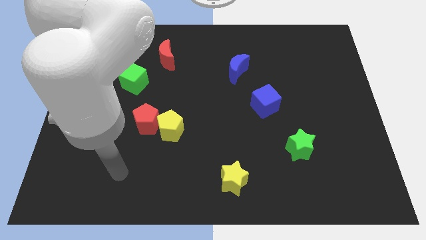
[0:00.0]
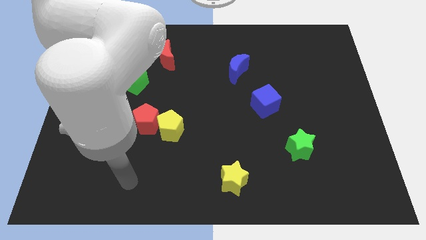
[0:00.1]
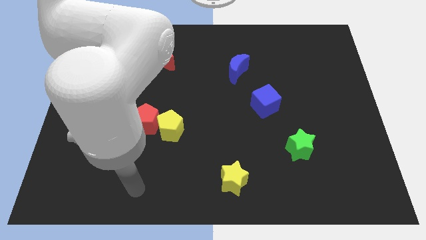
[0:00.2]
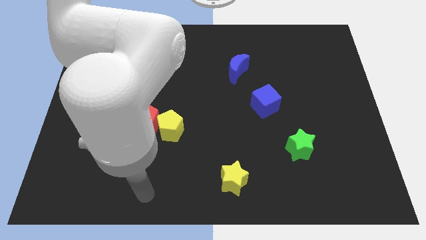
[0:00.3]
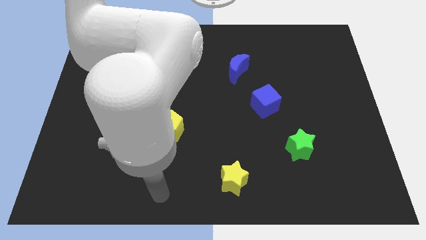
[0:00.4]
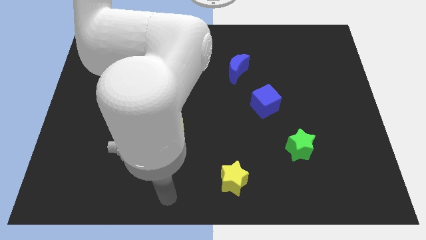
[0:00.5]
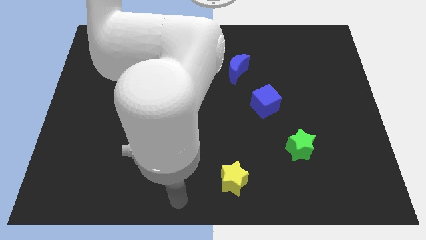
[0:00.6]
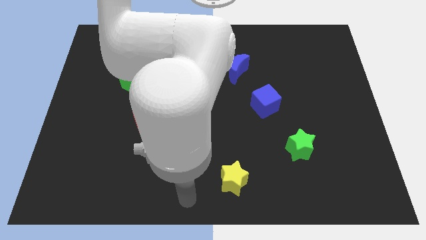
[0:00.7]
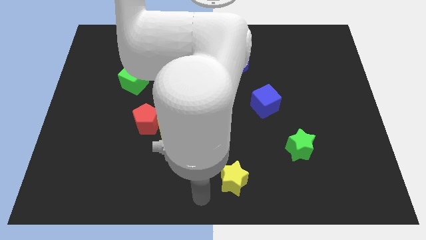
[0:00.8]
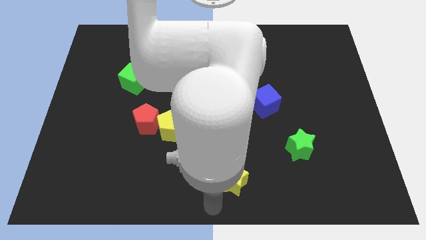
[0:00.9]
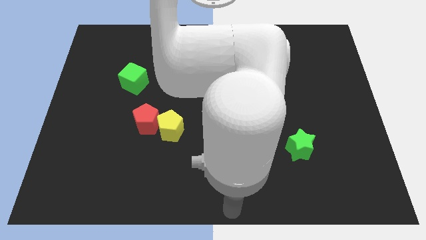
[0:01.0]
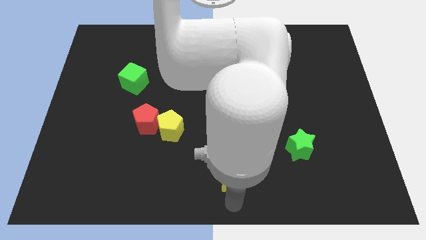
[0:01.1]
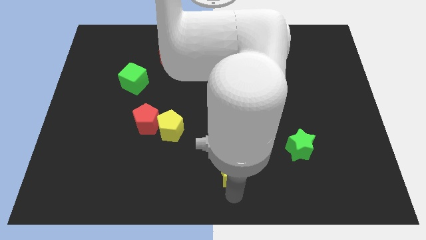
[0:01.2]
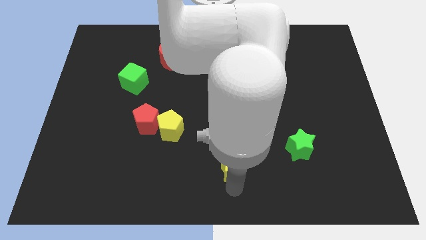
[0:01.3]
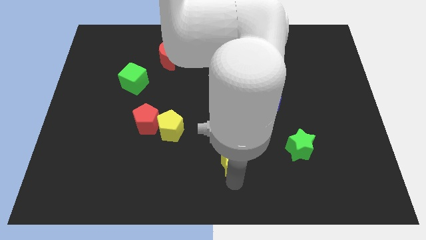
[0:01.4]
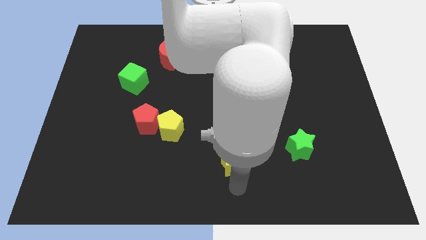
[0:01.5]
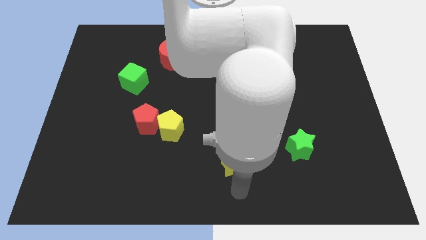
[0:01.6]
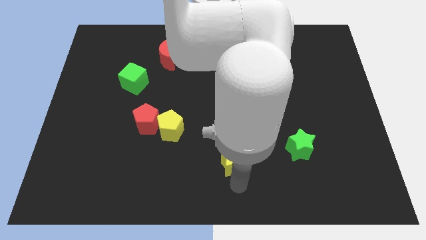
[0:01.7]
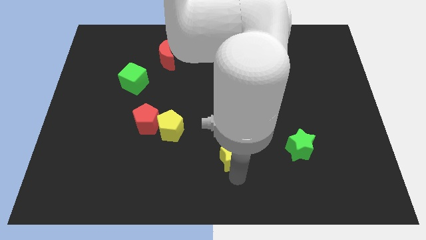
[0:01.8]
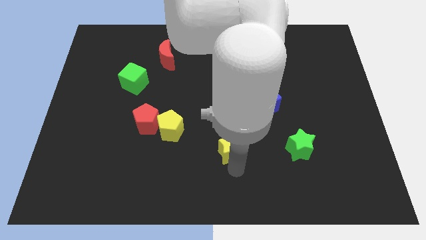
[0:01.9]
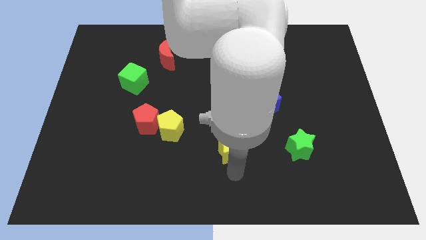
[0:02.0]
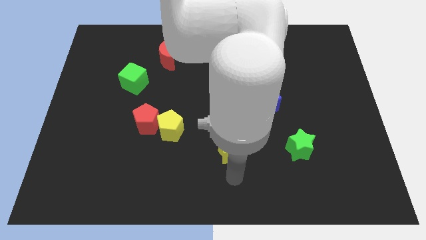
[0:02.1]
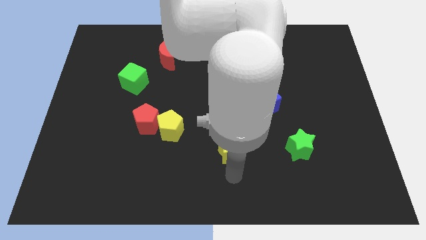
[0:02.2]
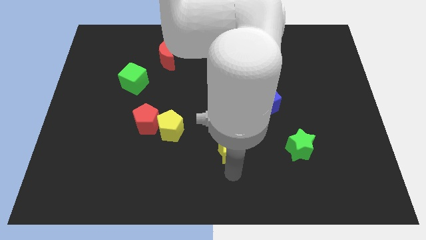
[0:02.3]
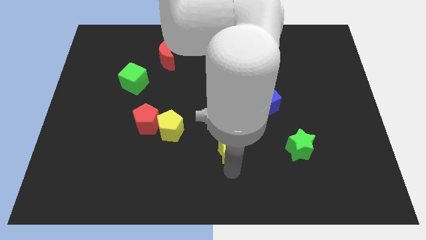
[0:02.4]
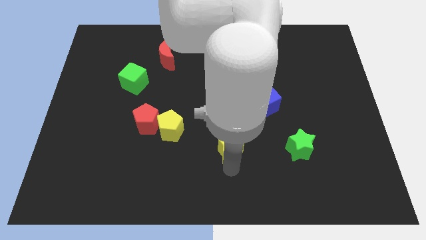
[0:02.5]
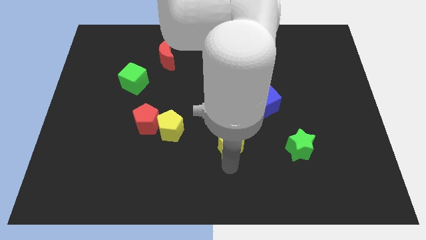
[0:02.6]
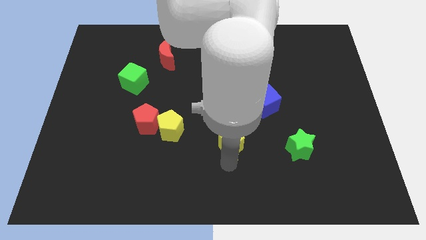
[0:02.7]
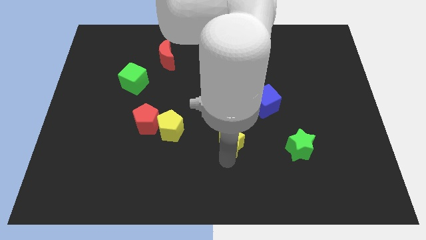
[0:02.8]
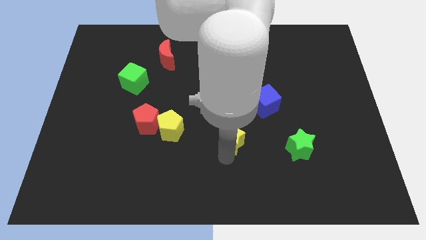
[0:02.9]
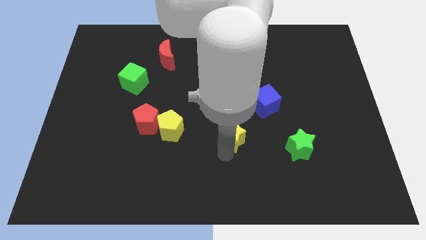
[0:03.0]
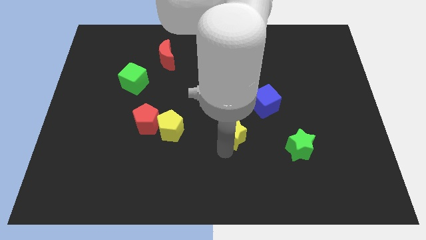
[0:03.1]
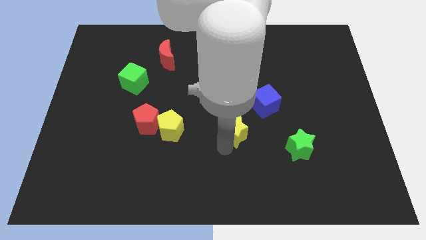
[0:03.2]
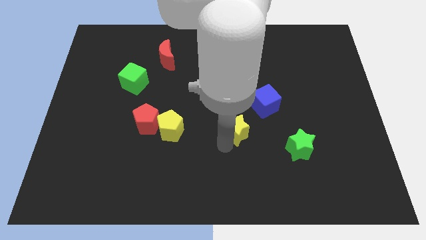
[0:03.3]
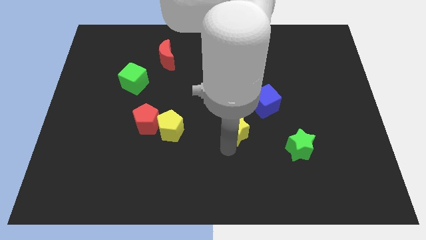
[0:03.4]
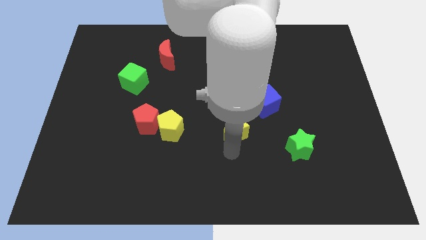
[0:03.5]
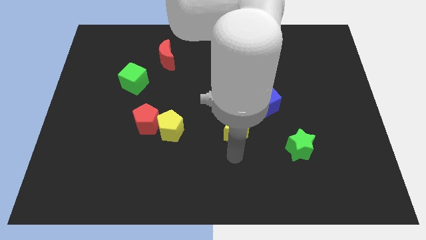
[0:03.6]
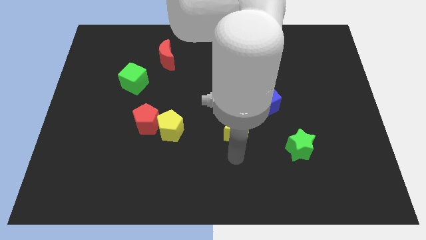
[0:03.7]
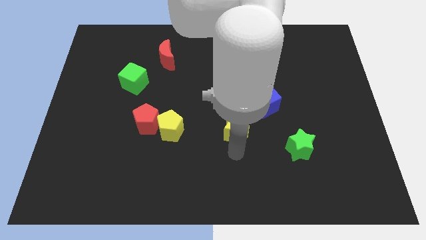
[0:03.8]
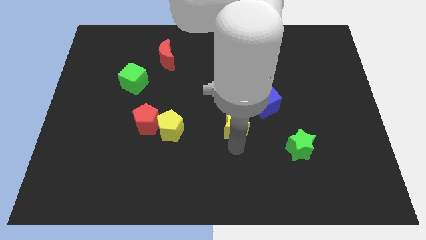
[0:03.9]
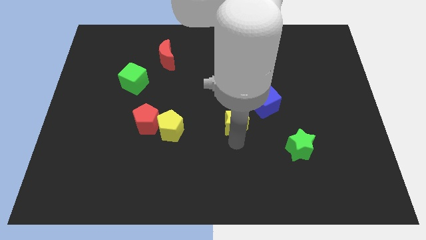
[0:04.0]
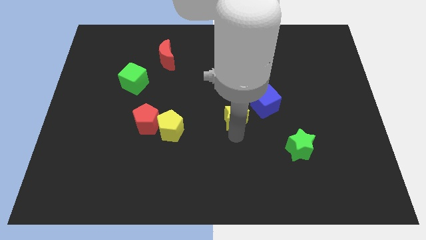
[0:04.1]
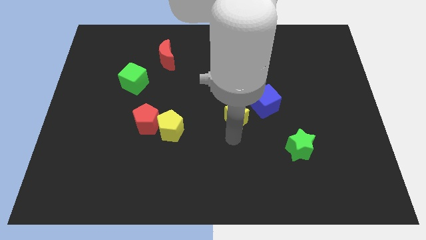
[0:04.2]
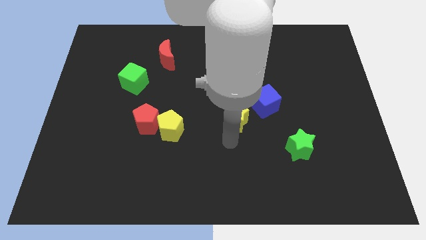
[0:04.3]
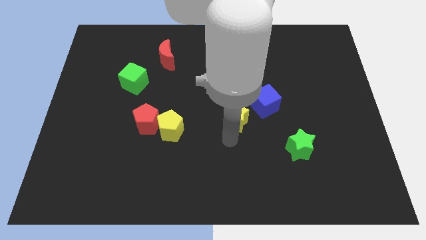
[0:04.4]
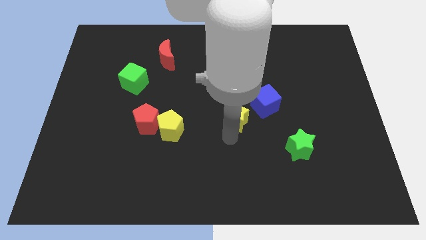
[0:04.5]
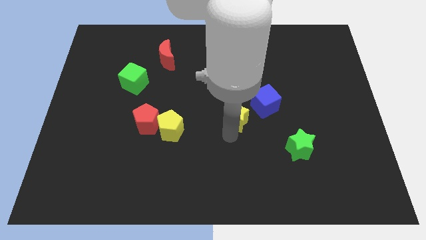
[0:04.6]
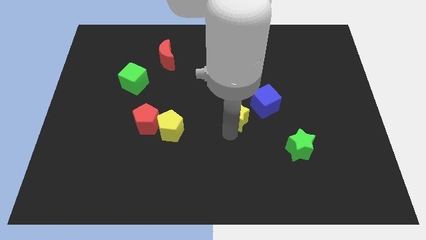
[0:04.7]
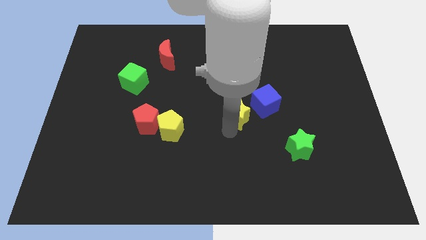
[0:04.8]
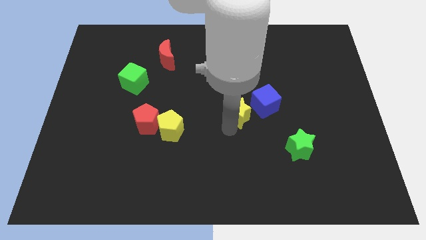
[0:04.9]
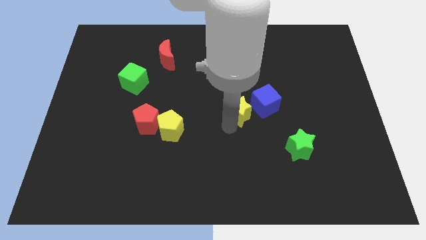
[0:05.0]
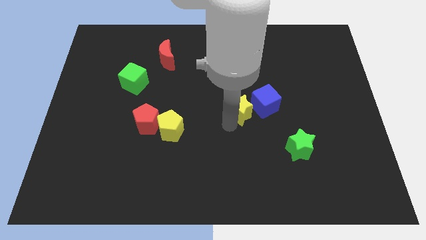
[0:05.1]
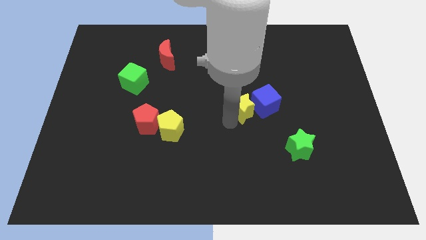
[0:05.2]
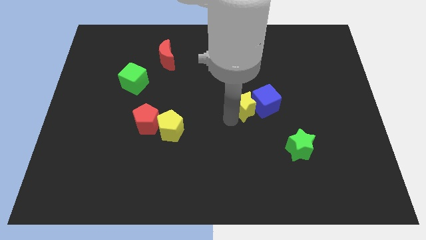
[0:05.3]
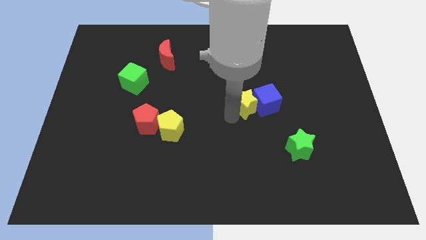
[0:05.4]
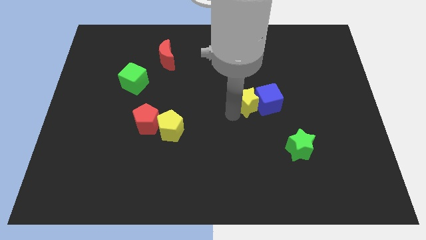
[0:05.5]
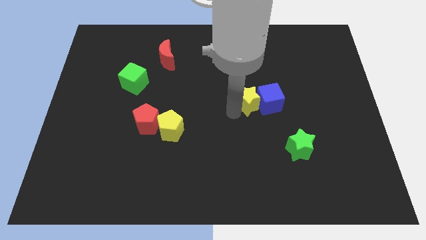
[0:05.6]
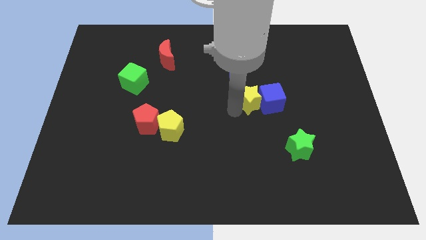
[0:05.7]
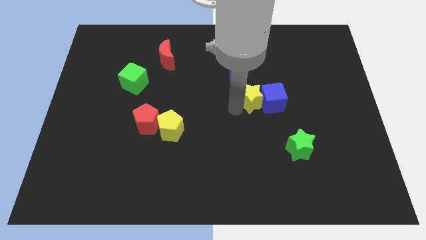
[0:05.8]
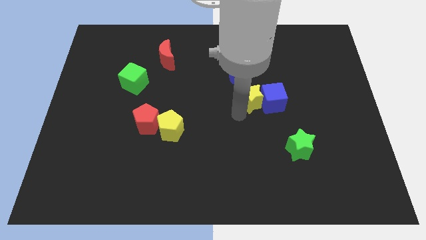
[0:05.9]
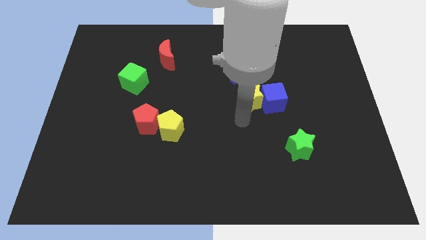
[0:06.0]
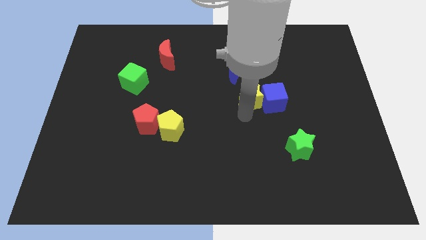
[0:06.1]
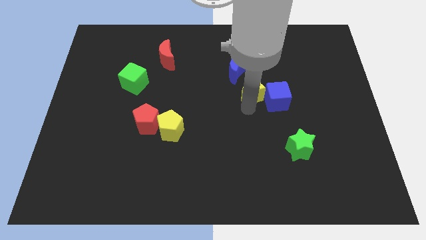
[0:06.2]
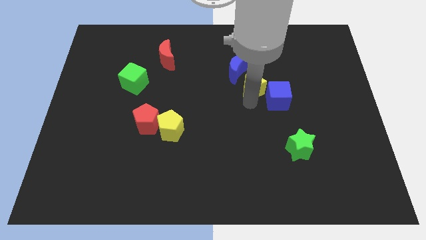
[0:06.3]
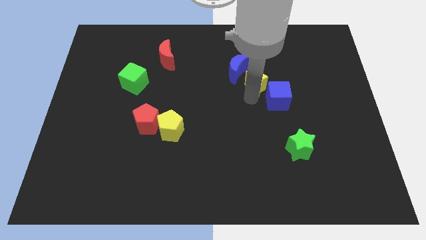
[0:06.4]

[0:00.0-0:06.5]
move the yellow star to the right side of the blue moon
